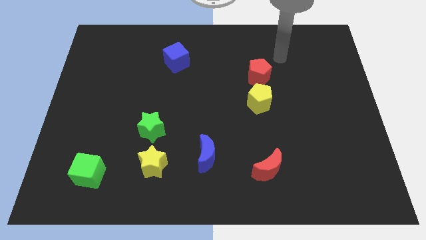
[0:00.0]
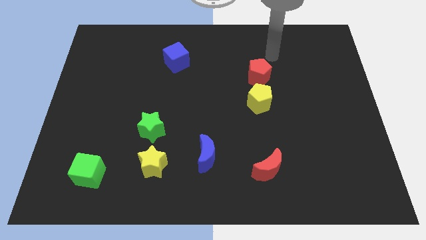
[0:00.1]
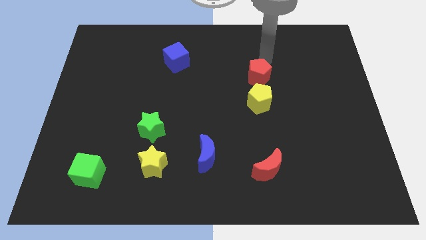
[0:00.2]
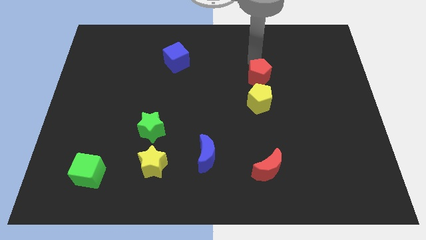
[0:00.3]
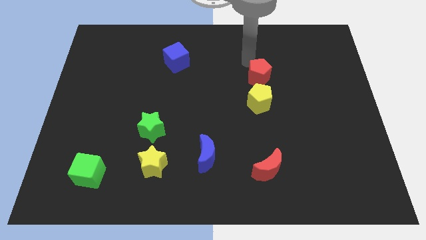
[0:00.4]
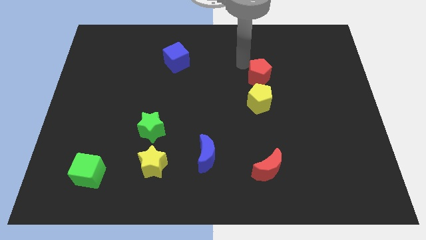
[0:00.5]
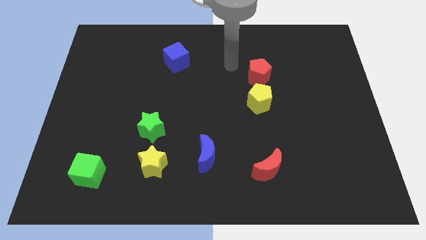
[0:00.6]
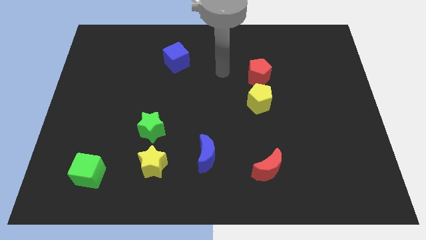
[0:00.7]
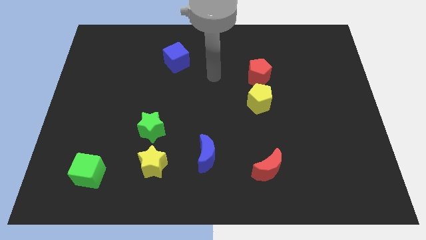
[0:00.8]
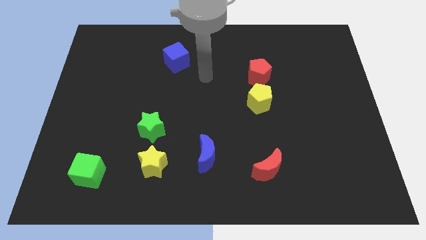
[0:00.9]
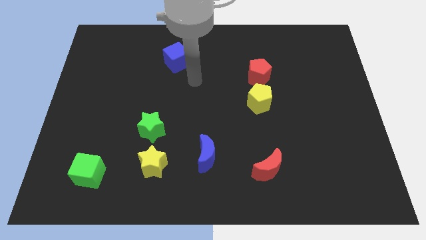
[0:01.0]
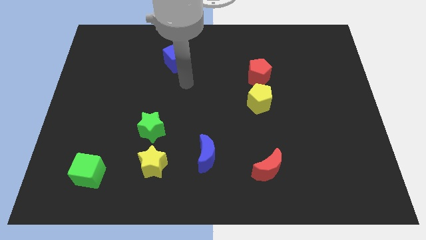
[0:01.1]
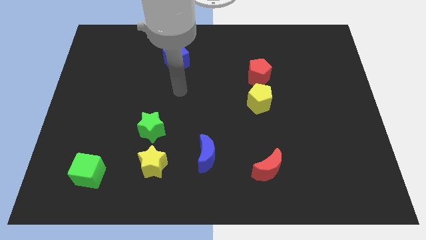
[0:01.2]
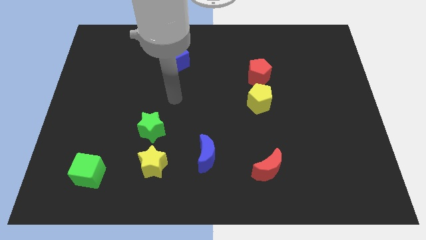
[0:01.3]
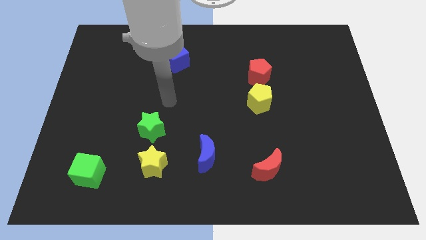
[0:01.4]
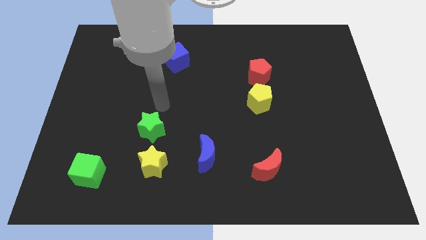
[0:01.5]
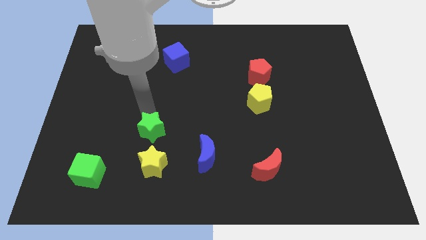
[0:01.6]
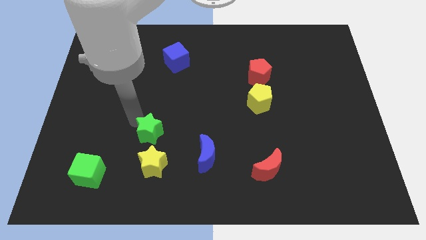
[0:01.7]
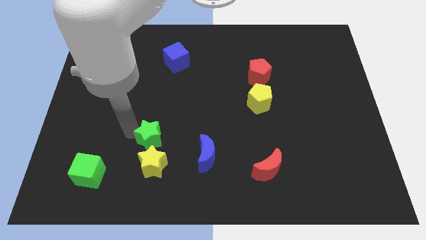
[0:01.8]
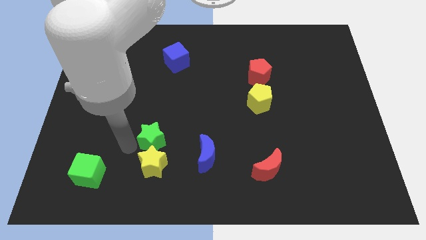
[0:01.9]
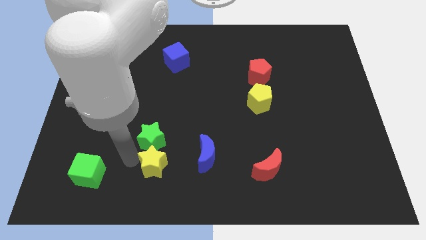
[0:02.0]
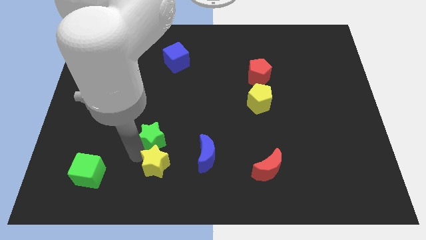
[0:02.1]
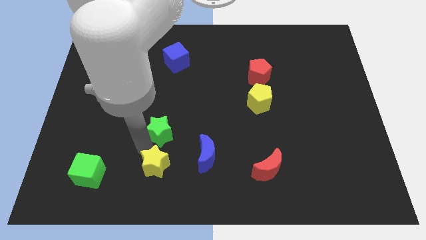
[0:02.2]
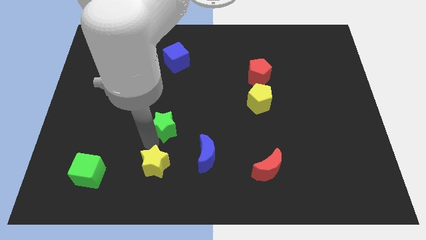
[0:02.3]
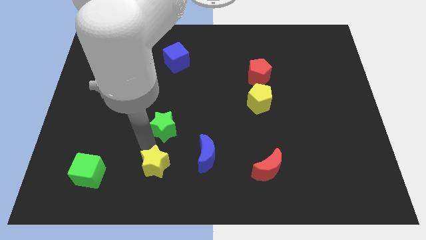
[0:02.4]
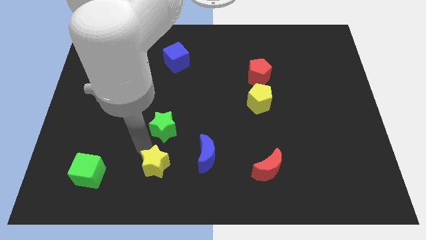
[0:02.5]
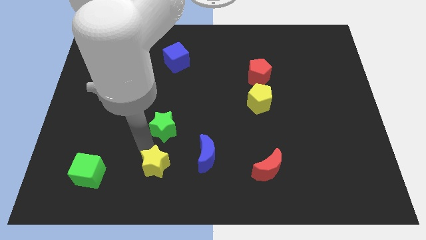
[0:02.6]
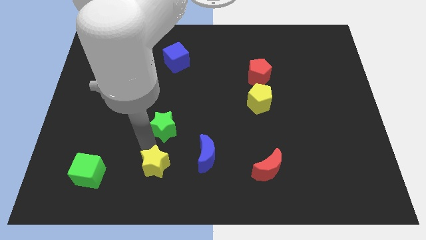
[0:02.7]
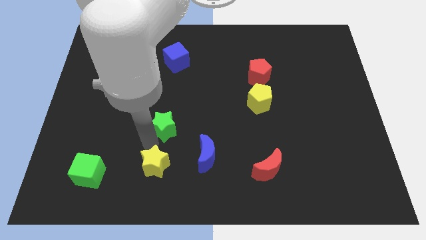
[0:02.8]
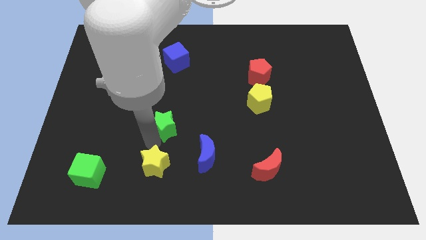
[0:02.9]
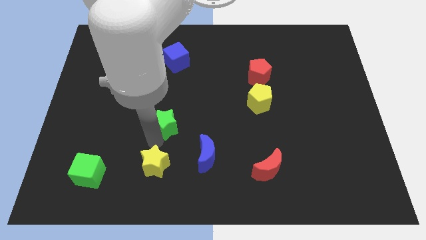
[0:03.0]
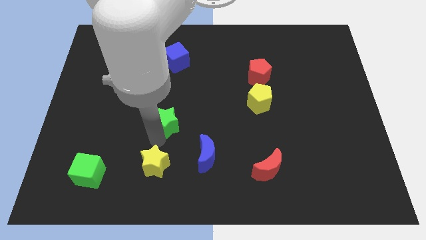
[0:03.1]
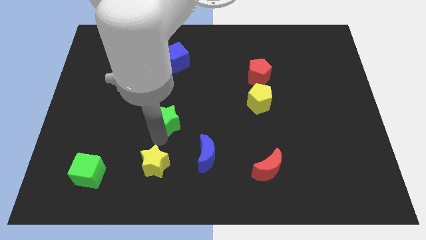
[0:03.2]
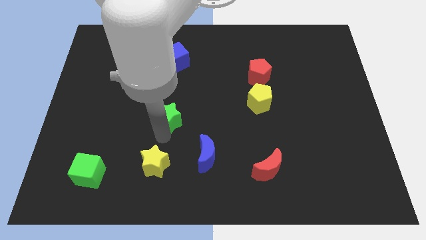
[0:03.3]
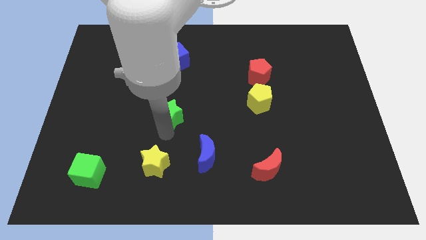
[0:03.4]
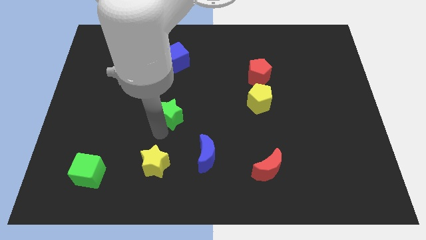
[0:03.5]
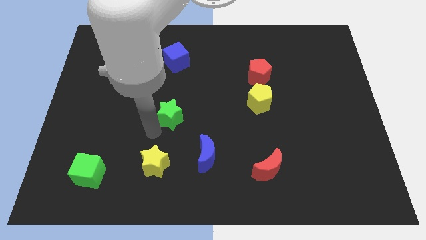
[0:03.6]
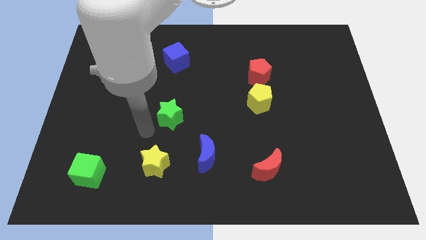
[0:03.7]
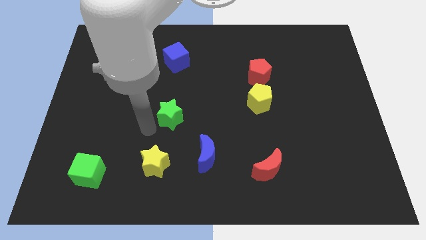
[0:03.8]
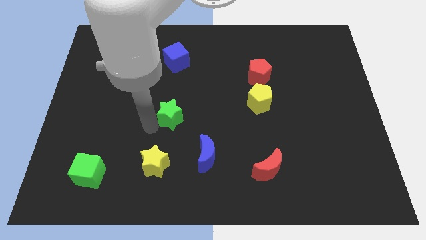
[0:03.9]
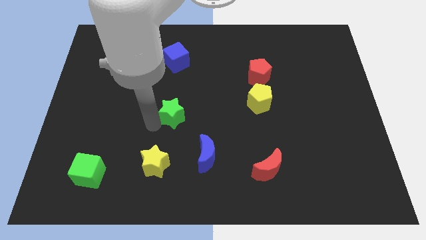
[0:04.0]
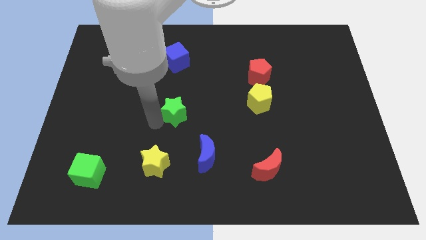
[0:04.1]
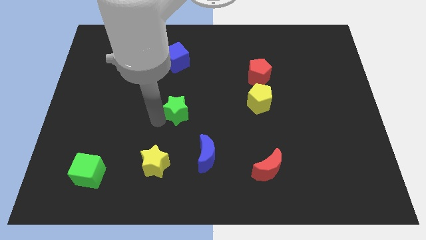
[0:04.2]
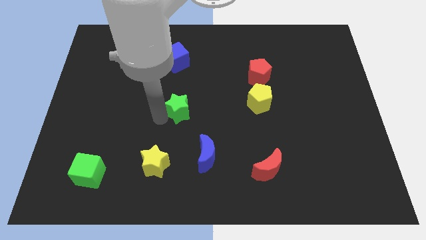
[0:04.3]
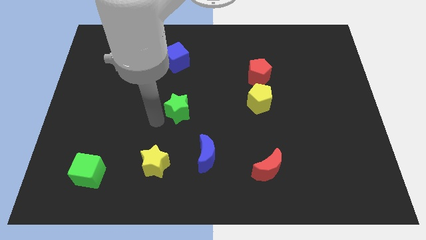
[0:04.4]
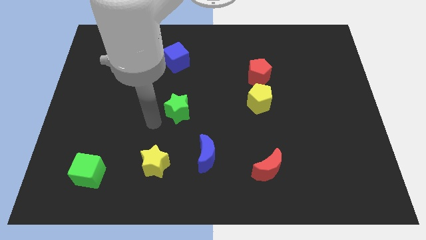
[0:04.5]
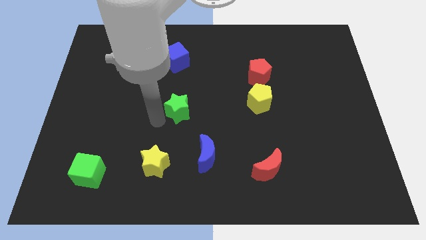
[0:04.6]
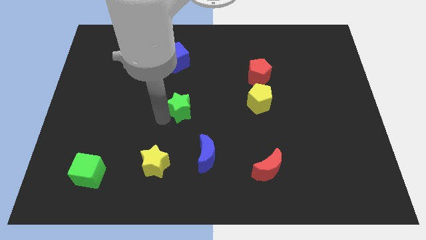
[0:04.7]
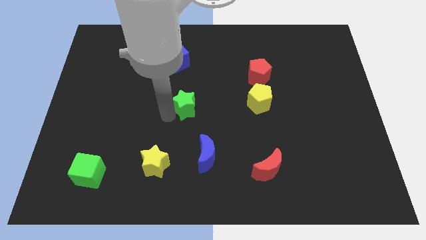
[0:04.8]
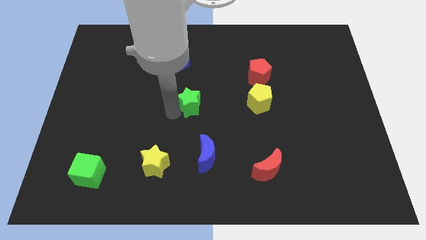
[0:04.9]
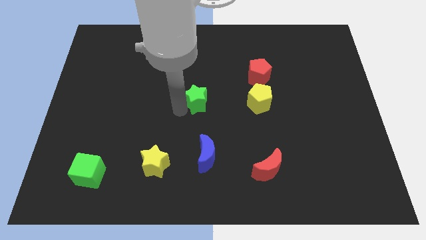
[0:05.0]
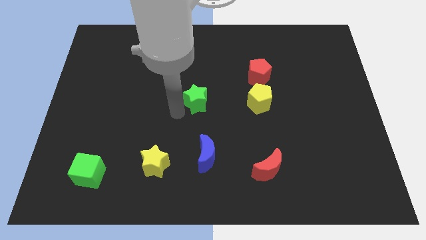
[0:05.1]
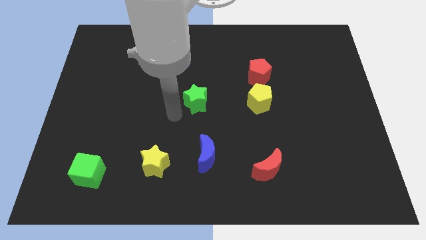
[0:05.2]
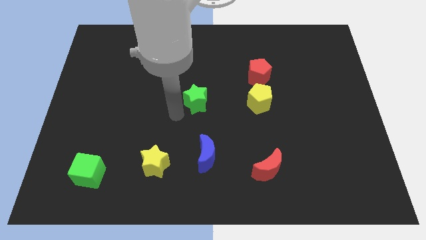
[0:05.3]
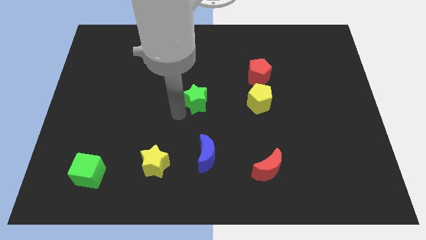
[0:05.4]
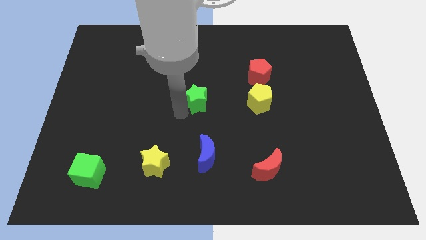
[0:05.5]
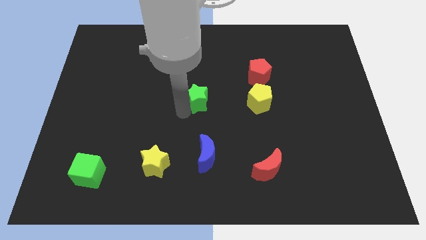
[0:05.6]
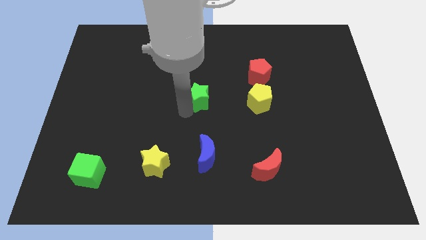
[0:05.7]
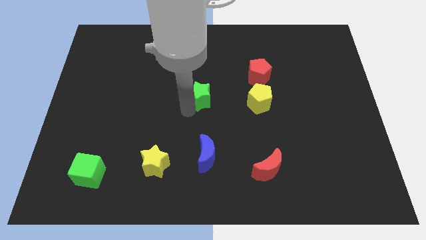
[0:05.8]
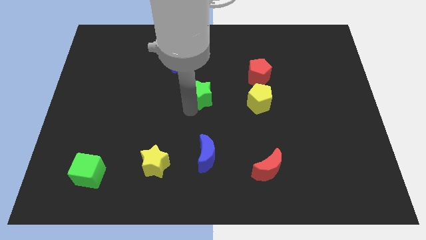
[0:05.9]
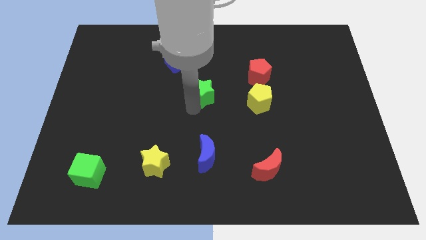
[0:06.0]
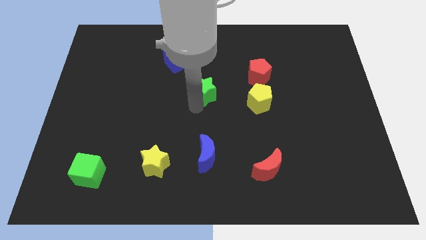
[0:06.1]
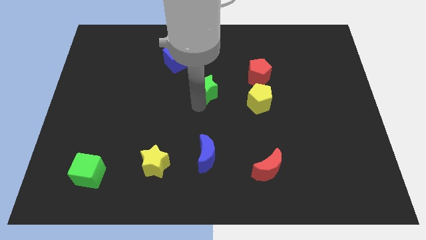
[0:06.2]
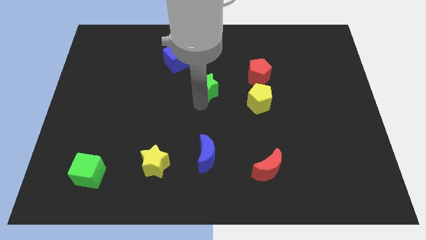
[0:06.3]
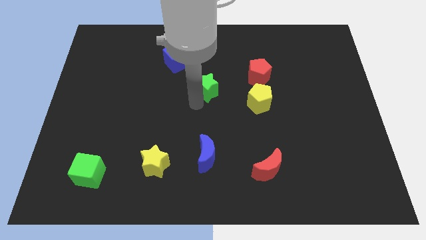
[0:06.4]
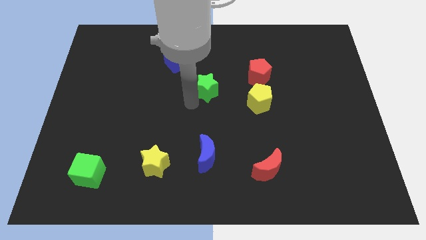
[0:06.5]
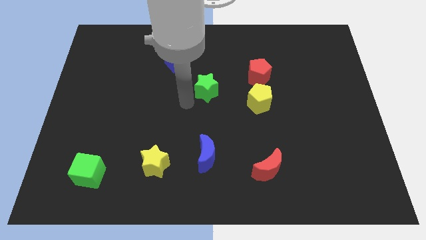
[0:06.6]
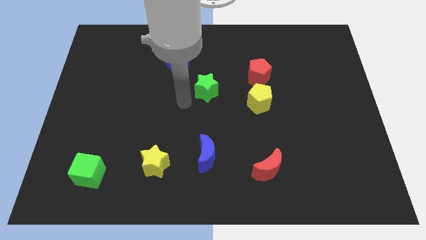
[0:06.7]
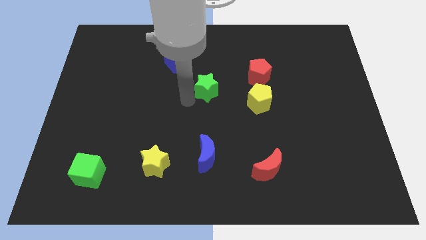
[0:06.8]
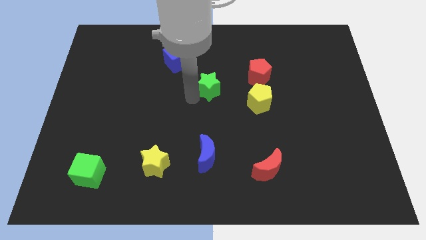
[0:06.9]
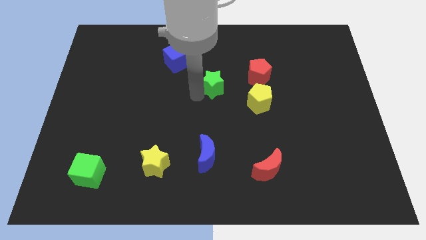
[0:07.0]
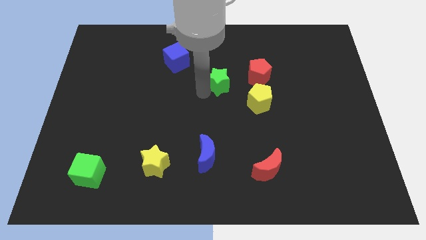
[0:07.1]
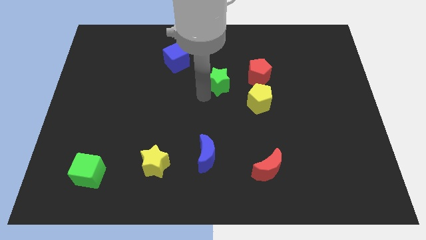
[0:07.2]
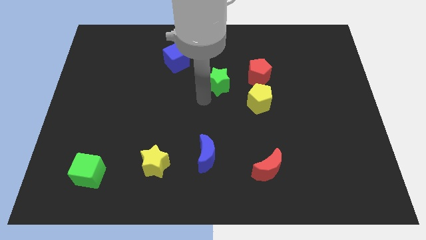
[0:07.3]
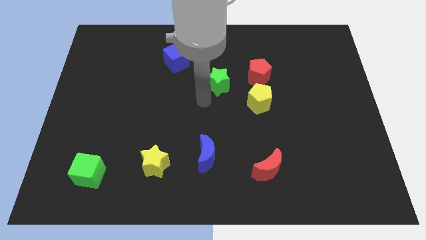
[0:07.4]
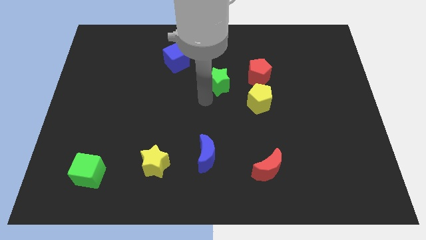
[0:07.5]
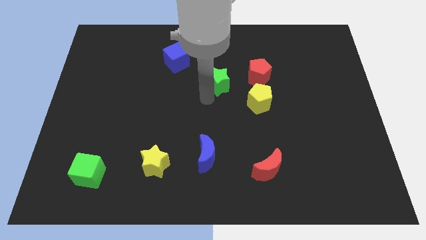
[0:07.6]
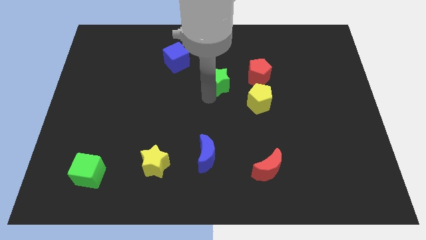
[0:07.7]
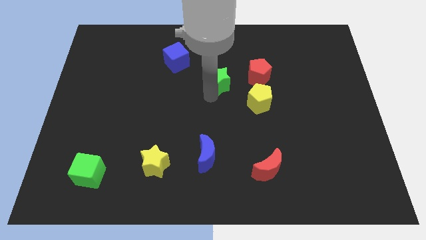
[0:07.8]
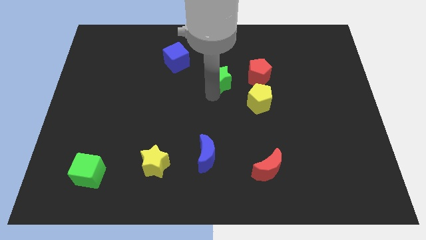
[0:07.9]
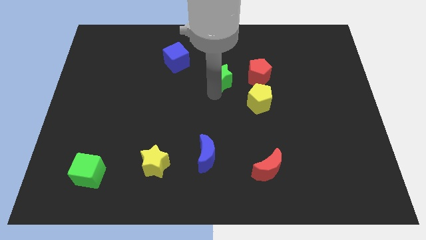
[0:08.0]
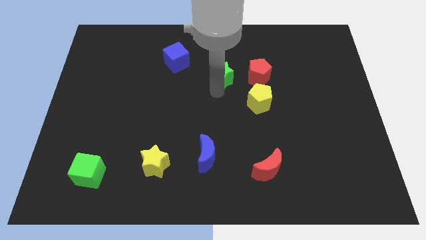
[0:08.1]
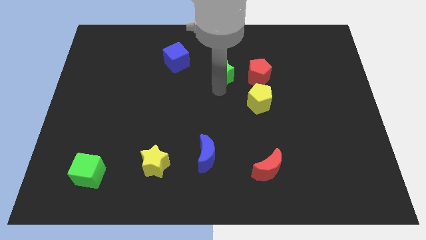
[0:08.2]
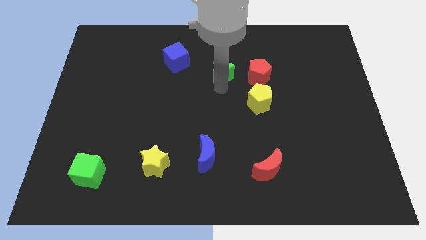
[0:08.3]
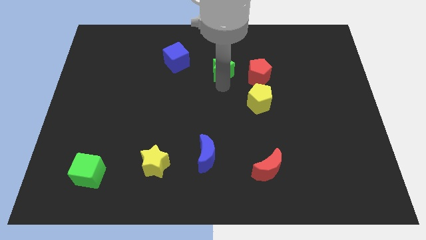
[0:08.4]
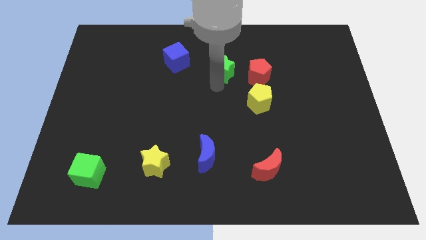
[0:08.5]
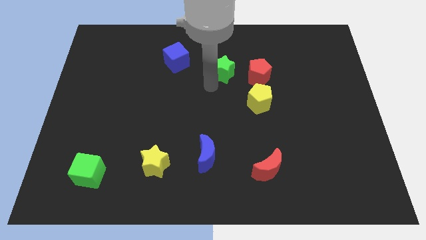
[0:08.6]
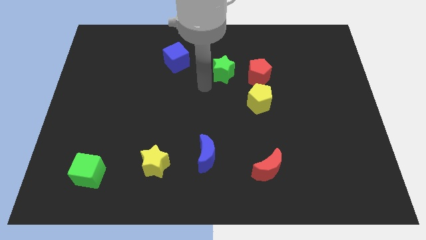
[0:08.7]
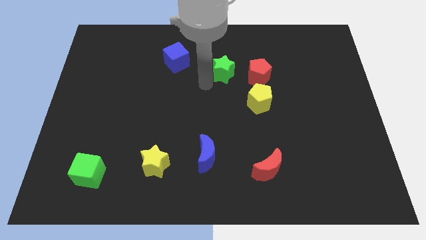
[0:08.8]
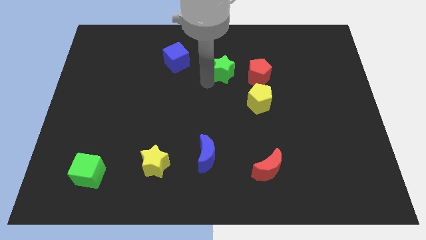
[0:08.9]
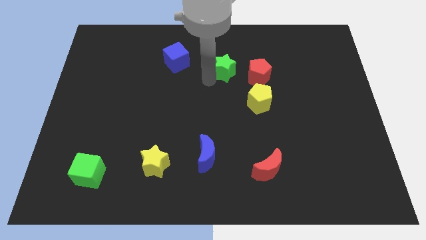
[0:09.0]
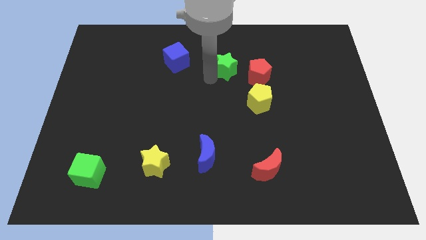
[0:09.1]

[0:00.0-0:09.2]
slide the green star to the top left of the red pentagon
